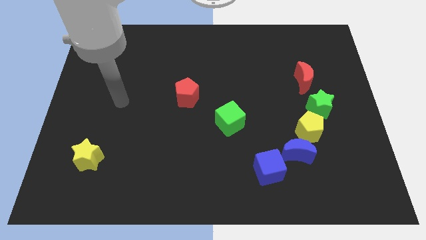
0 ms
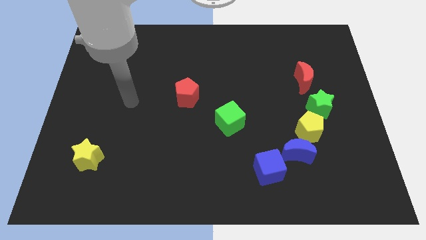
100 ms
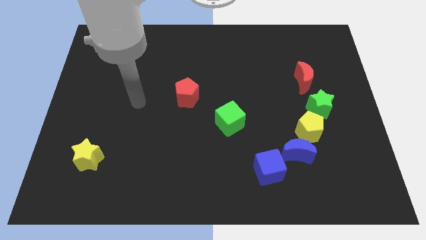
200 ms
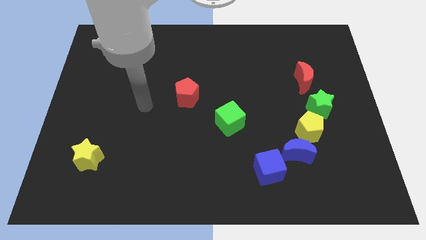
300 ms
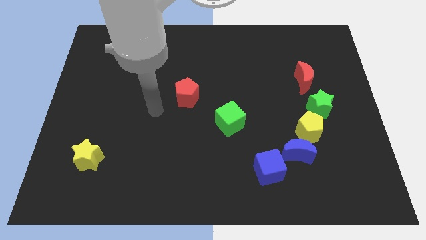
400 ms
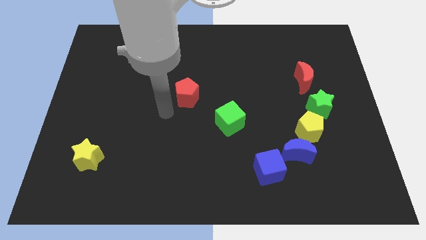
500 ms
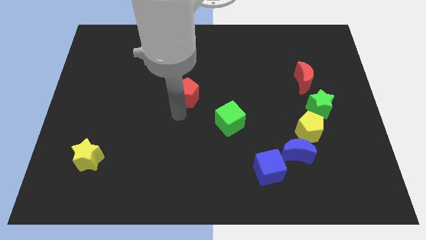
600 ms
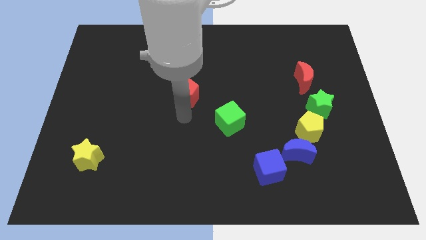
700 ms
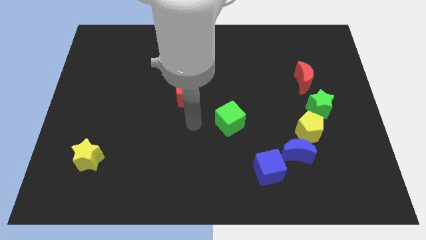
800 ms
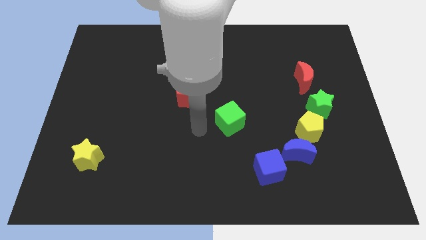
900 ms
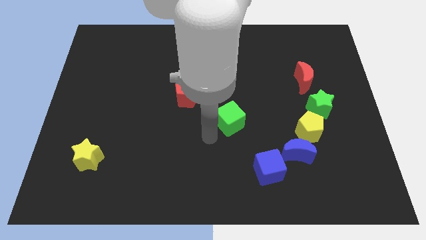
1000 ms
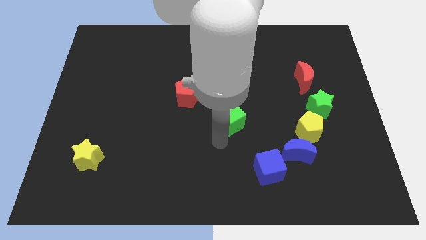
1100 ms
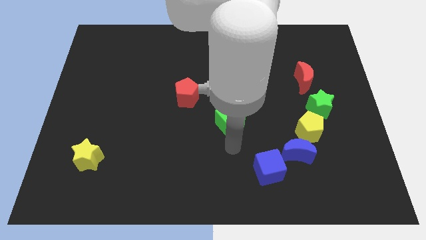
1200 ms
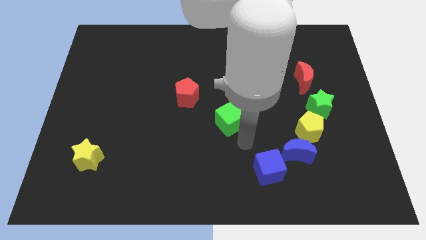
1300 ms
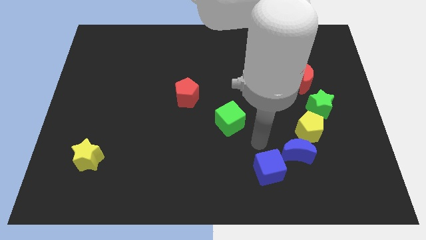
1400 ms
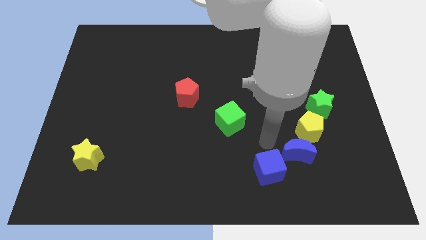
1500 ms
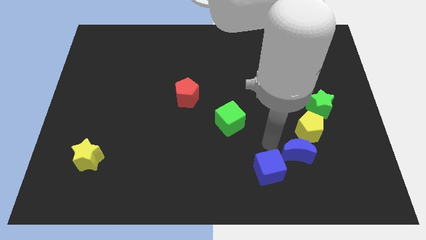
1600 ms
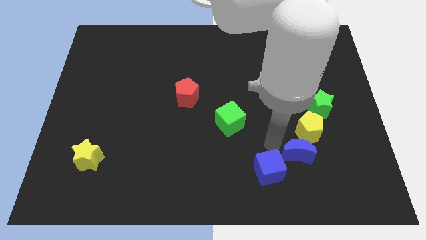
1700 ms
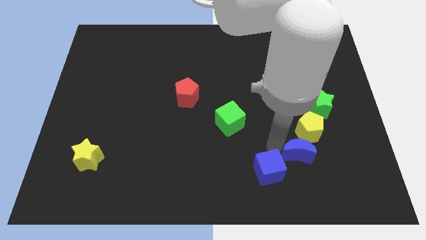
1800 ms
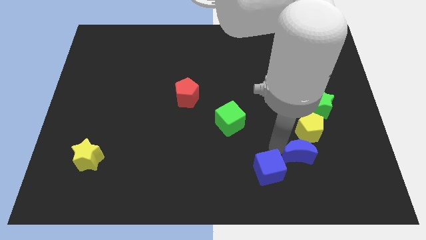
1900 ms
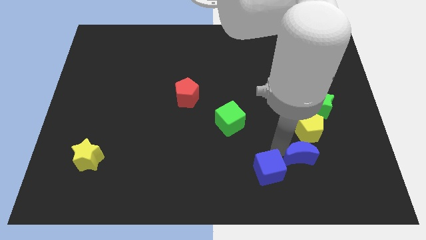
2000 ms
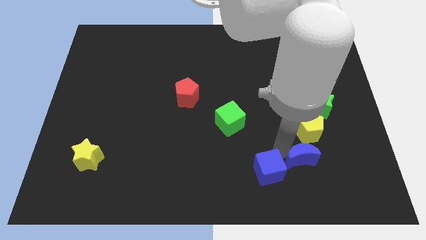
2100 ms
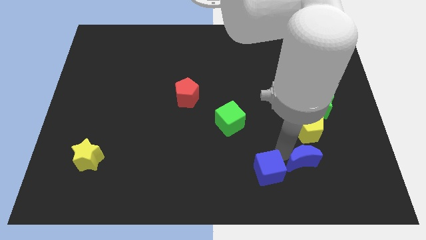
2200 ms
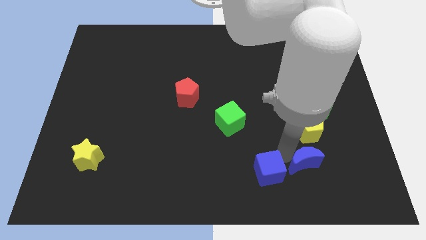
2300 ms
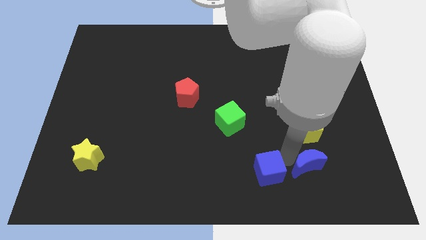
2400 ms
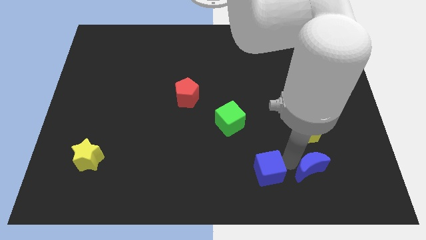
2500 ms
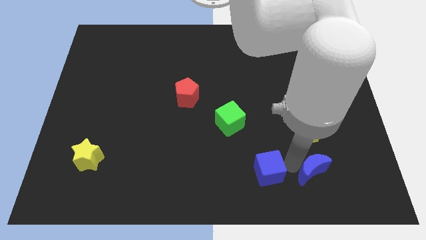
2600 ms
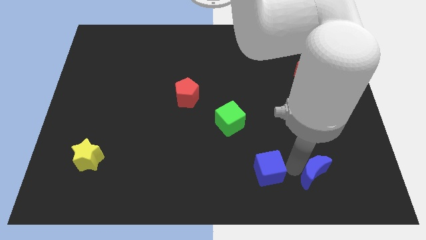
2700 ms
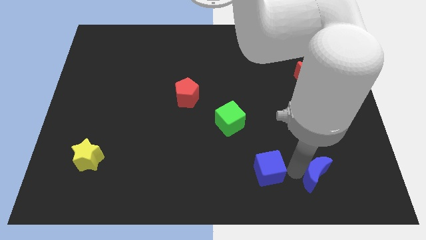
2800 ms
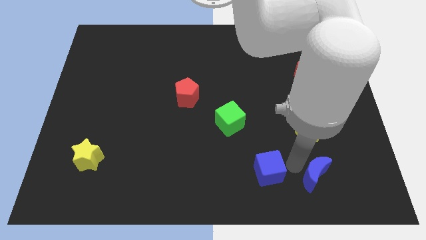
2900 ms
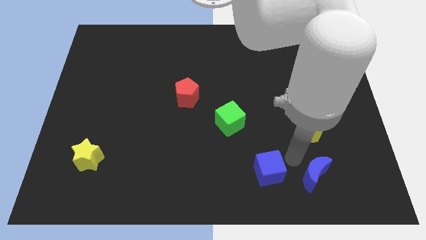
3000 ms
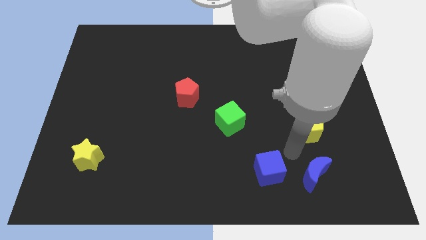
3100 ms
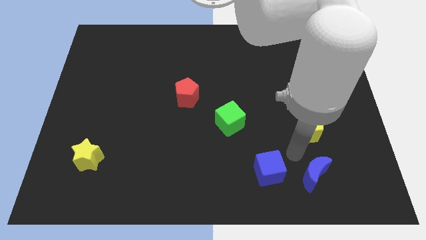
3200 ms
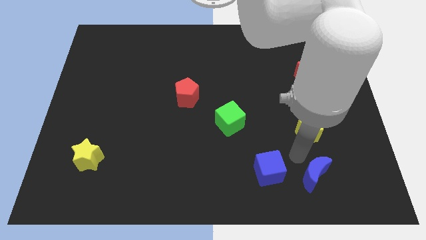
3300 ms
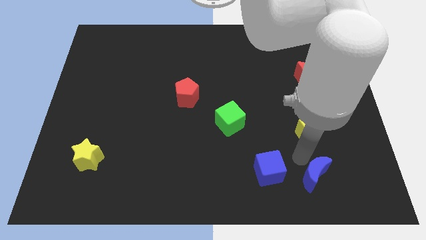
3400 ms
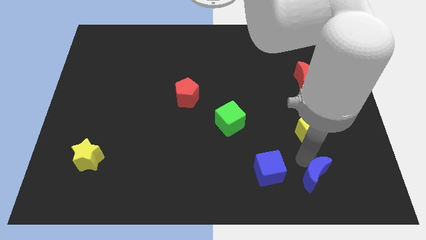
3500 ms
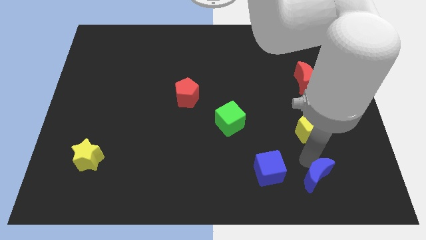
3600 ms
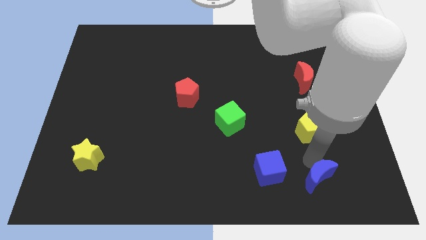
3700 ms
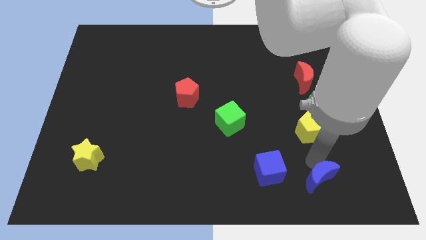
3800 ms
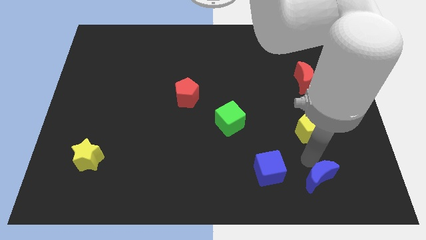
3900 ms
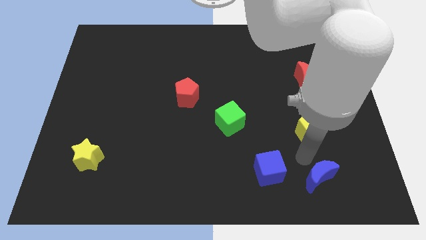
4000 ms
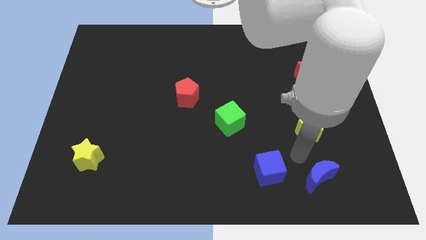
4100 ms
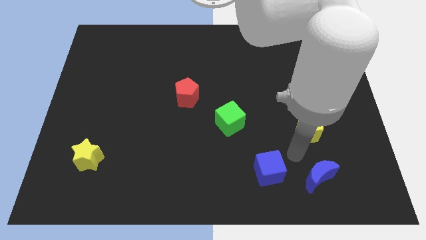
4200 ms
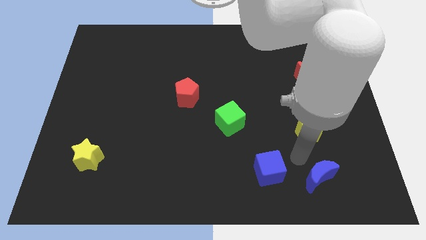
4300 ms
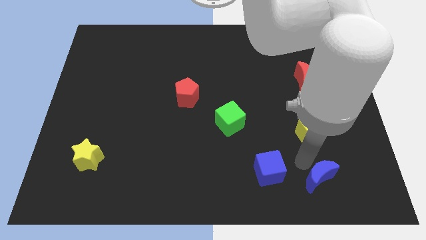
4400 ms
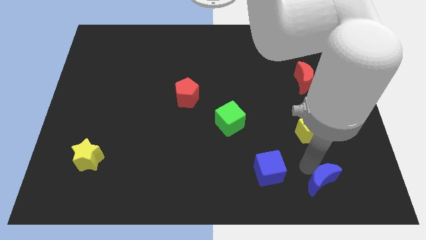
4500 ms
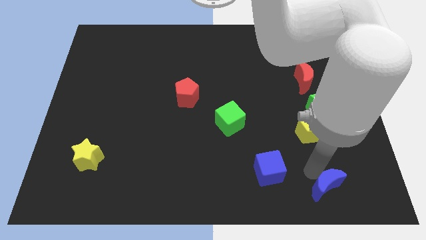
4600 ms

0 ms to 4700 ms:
pull the blue moon apart from the yellow pentagon and blue cube

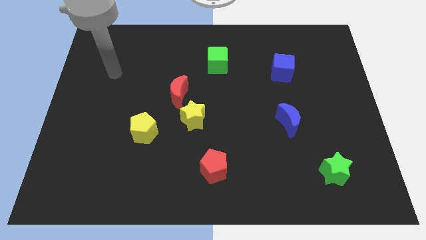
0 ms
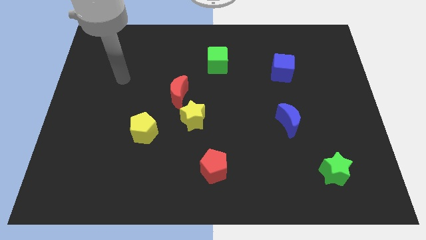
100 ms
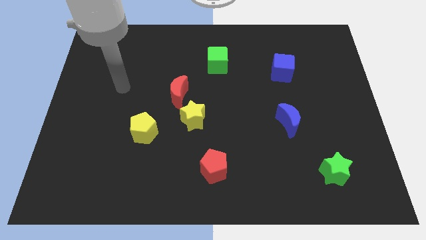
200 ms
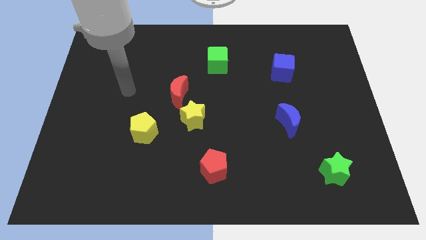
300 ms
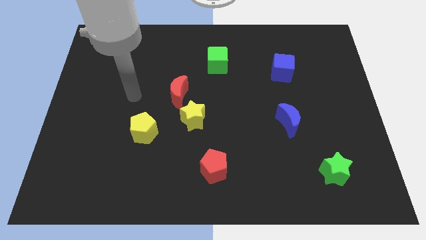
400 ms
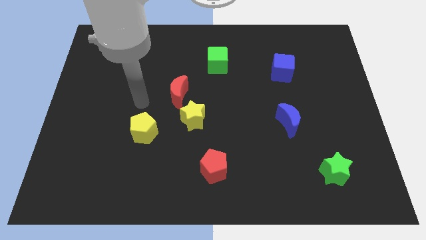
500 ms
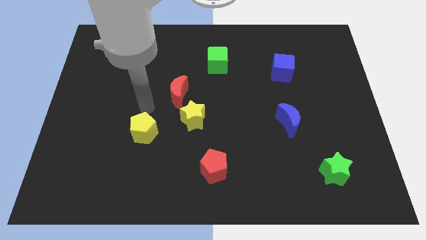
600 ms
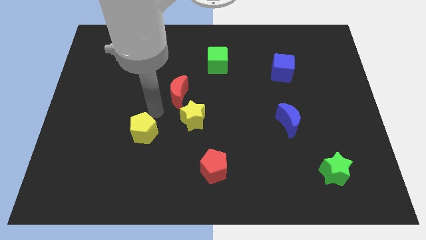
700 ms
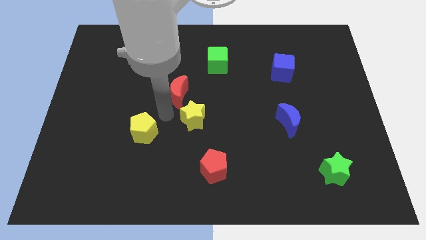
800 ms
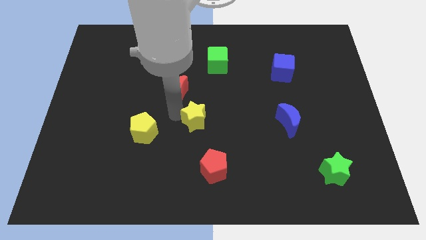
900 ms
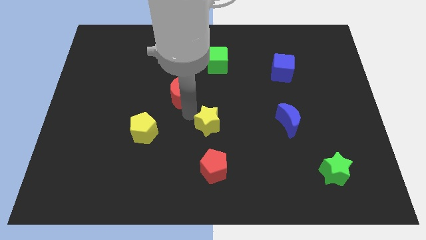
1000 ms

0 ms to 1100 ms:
move the red moon away from the yellow star

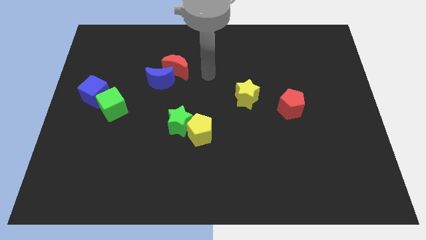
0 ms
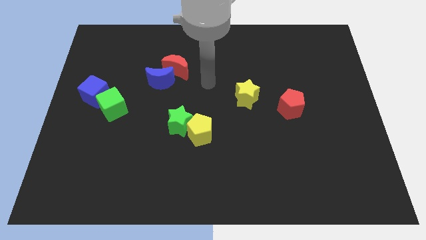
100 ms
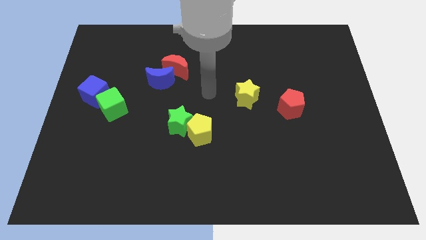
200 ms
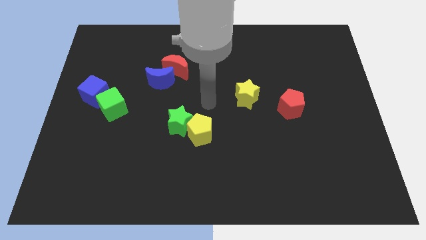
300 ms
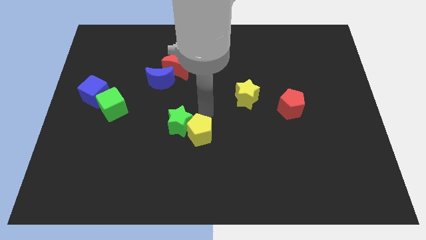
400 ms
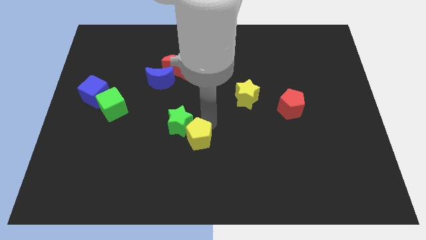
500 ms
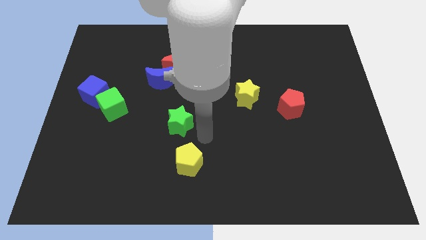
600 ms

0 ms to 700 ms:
pull the green star apart from the yellow pentagon

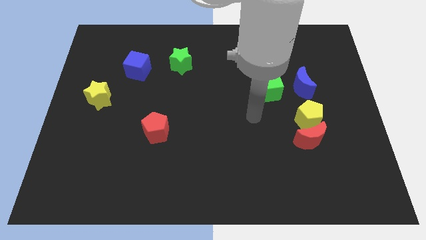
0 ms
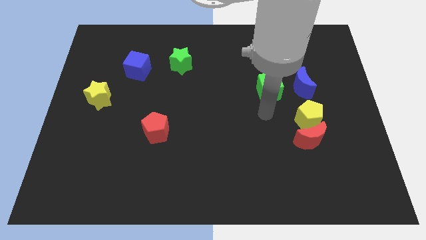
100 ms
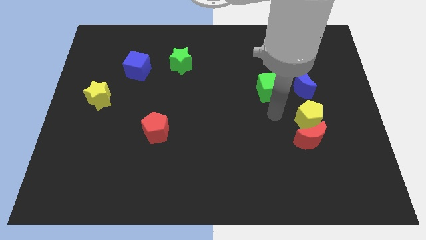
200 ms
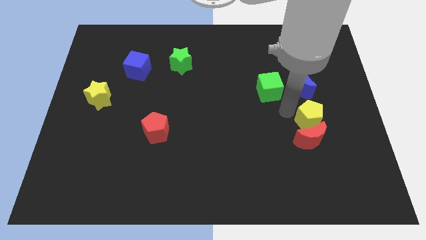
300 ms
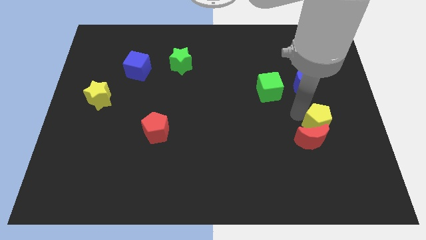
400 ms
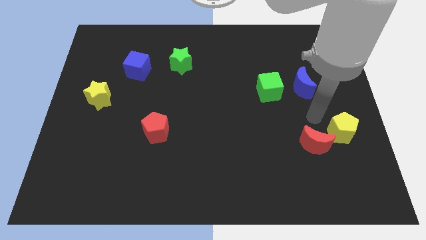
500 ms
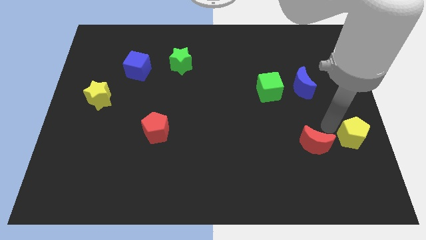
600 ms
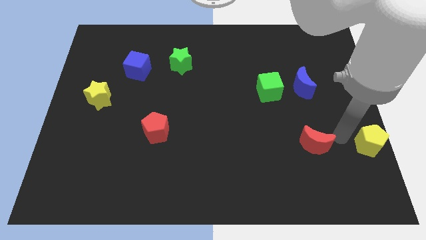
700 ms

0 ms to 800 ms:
pull the red moon apart from the yellow pentagon

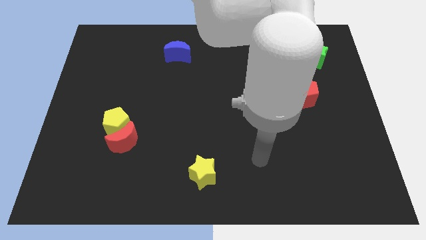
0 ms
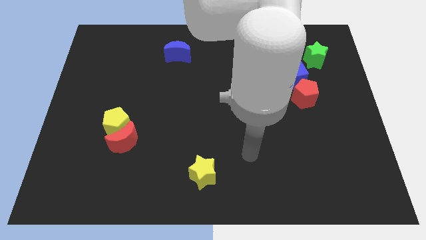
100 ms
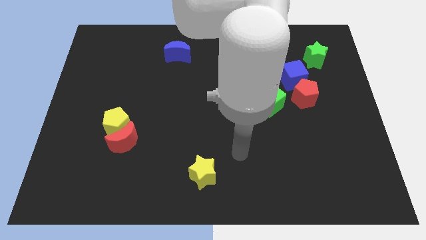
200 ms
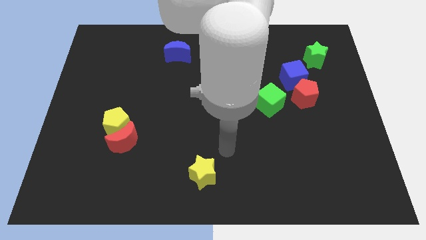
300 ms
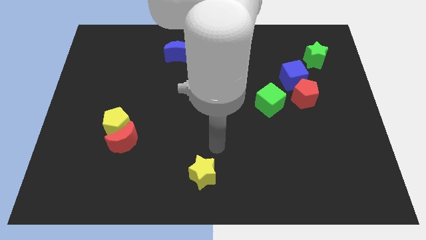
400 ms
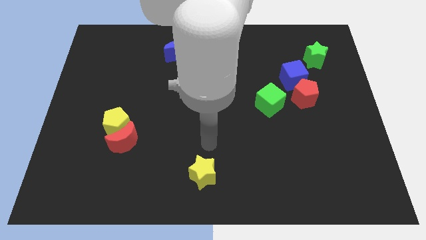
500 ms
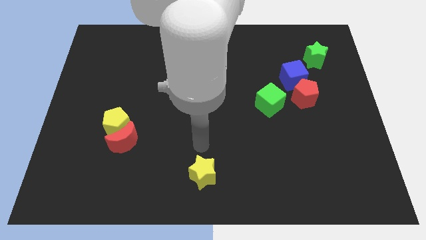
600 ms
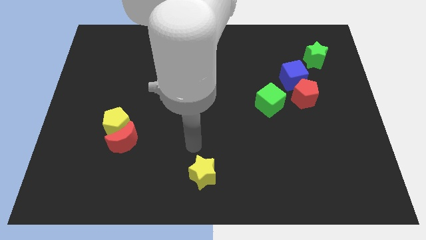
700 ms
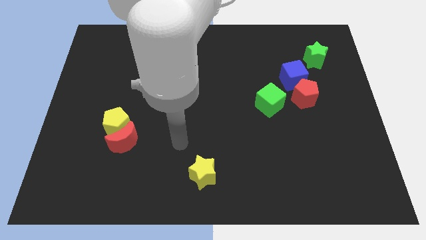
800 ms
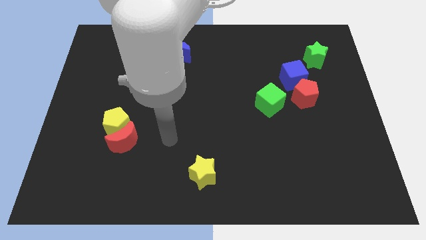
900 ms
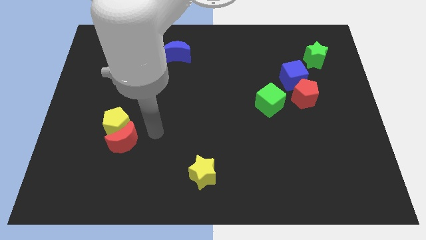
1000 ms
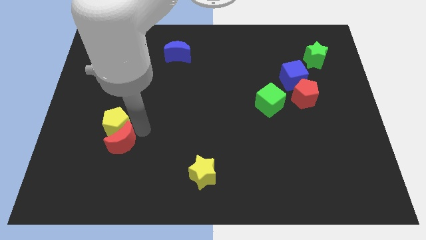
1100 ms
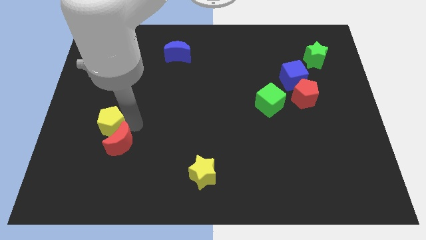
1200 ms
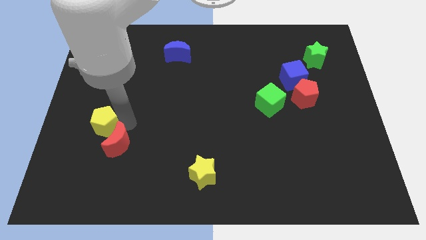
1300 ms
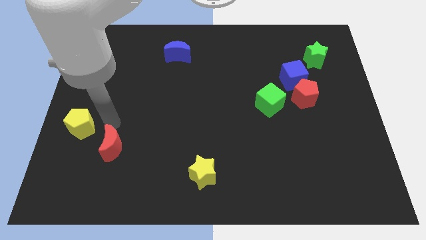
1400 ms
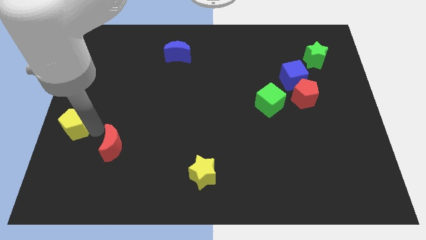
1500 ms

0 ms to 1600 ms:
move the red moon away from the yellow pentagon

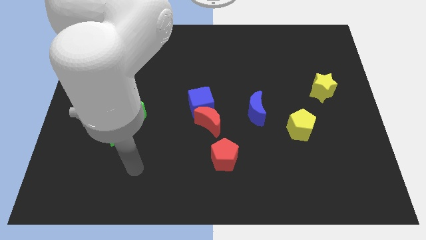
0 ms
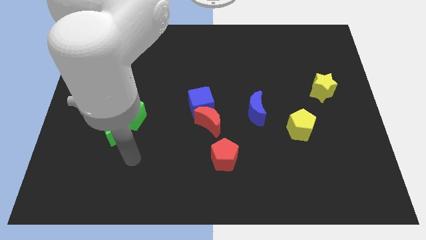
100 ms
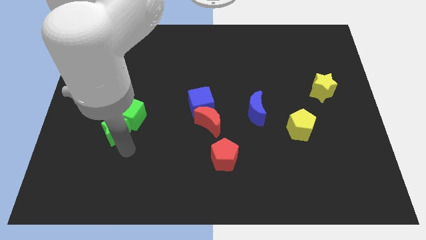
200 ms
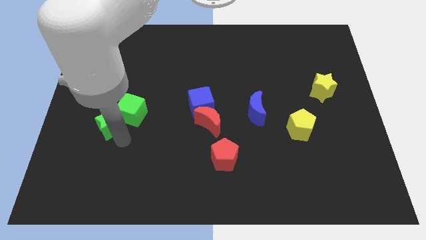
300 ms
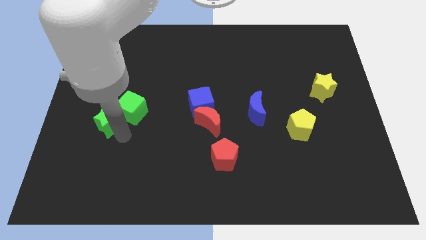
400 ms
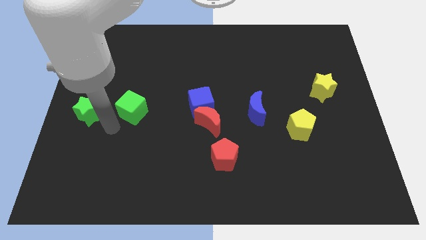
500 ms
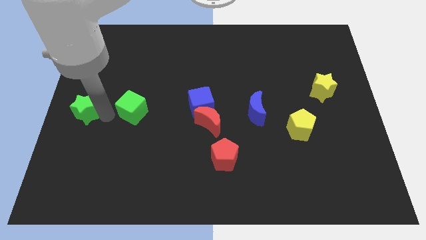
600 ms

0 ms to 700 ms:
move the green cube away from the green star
